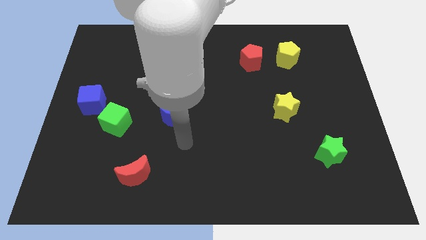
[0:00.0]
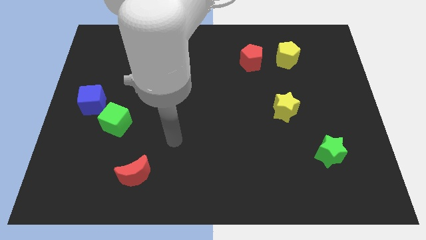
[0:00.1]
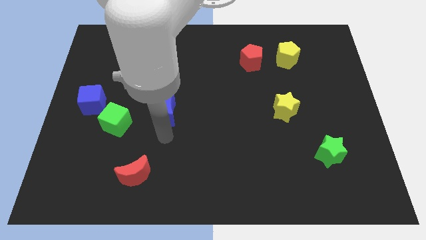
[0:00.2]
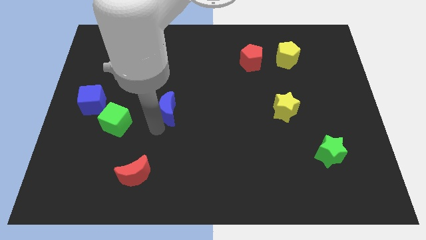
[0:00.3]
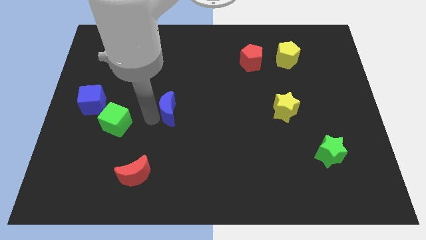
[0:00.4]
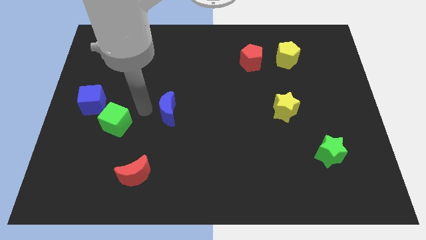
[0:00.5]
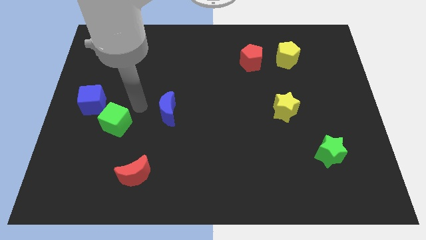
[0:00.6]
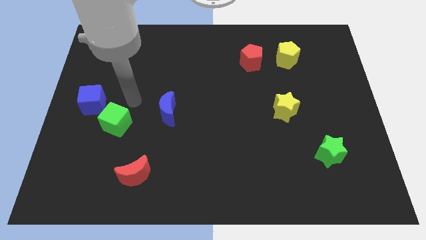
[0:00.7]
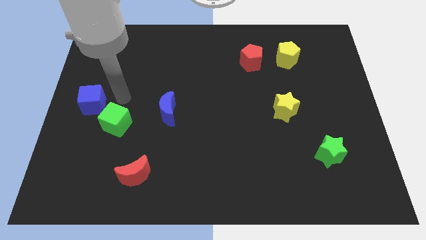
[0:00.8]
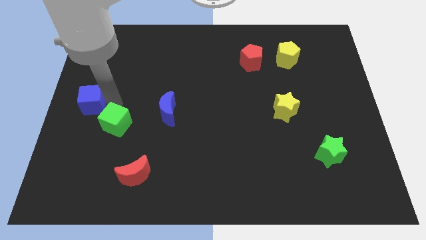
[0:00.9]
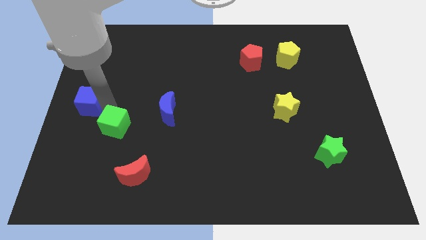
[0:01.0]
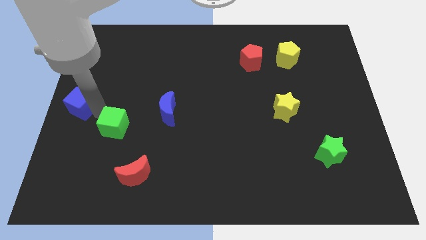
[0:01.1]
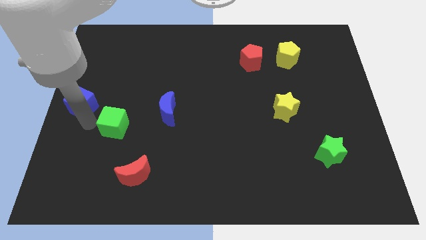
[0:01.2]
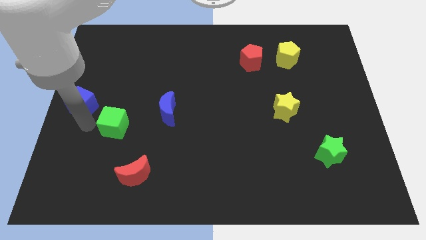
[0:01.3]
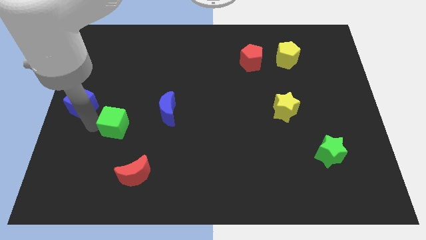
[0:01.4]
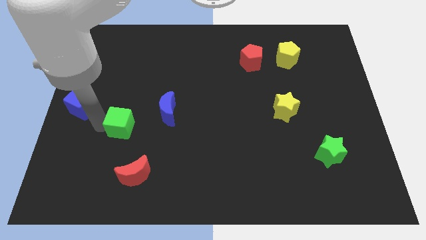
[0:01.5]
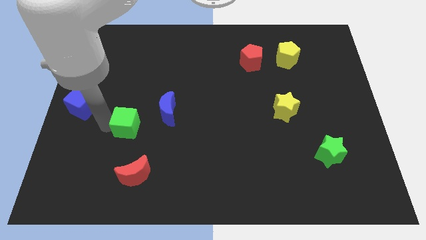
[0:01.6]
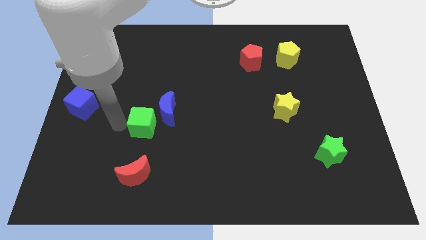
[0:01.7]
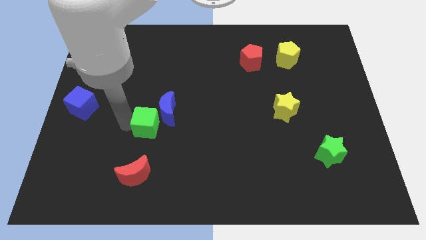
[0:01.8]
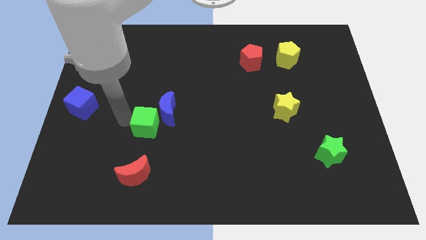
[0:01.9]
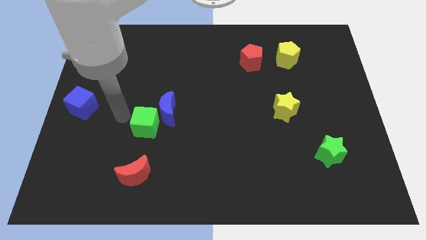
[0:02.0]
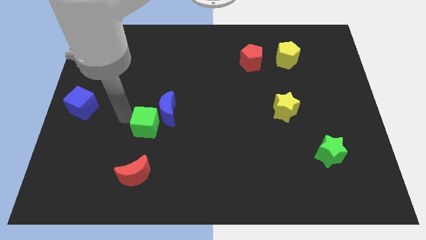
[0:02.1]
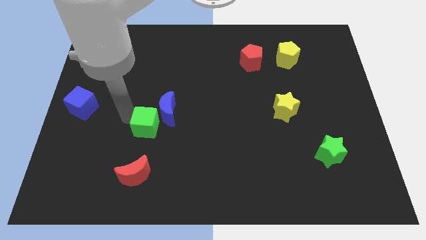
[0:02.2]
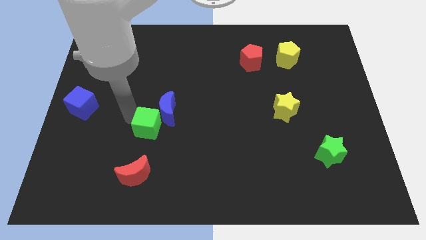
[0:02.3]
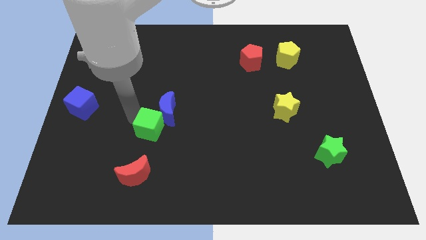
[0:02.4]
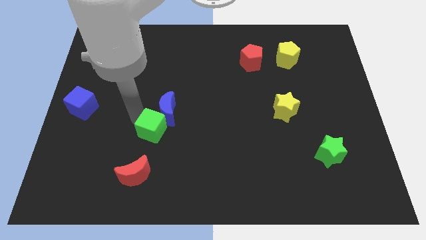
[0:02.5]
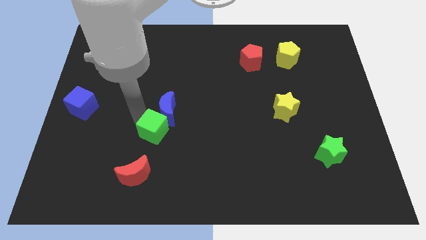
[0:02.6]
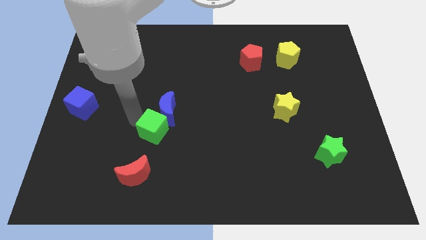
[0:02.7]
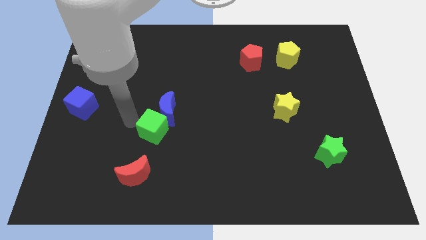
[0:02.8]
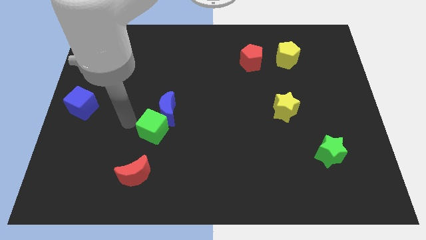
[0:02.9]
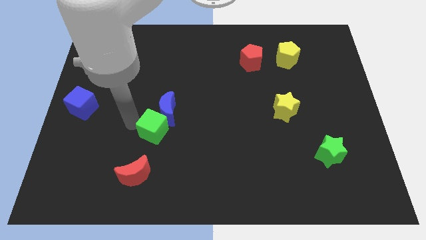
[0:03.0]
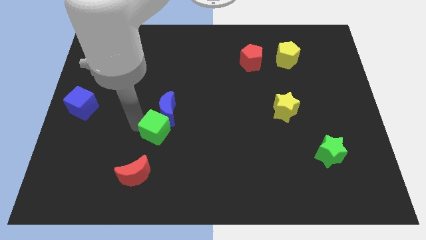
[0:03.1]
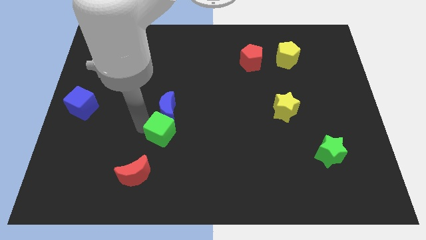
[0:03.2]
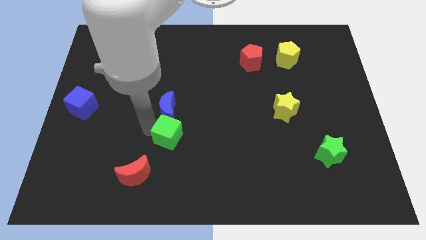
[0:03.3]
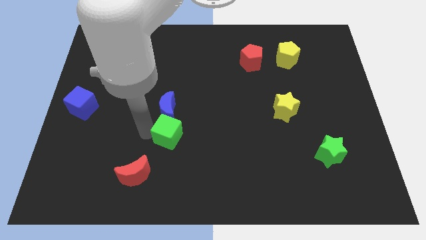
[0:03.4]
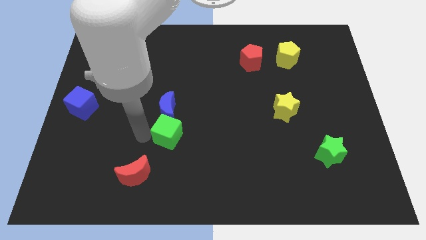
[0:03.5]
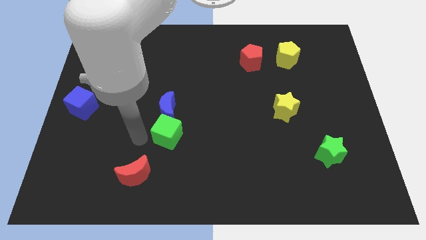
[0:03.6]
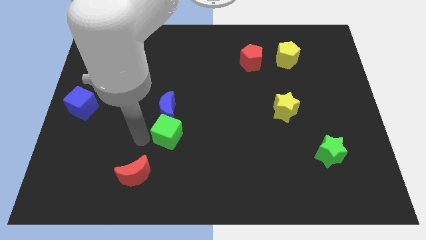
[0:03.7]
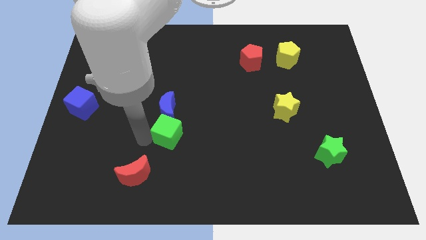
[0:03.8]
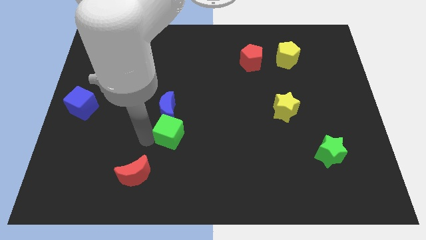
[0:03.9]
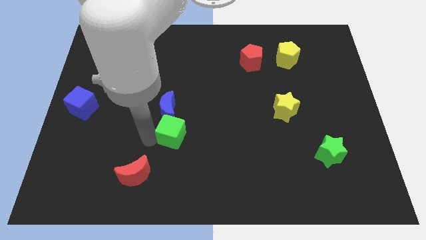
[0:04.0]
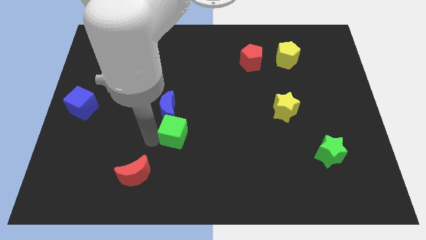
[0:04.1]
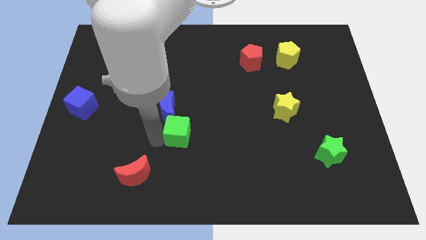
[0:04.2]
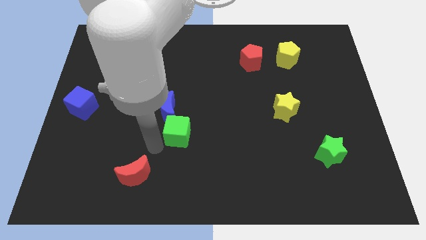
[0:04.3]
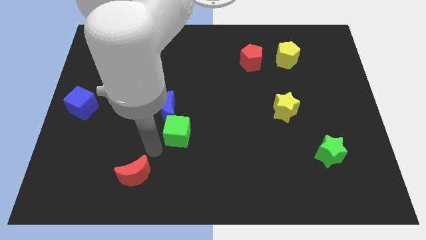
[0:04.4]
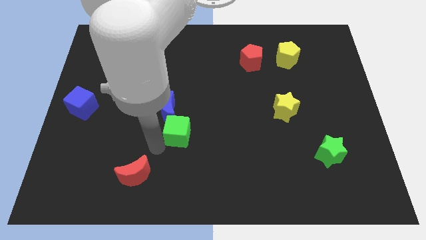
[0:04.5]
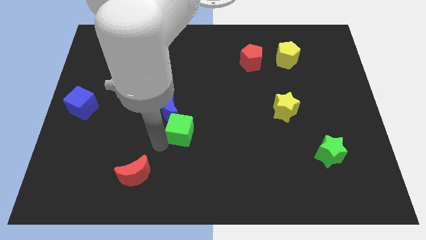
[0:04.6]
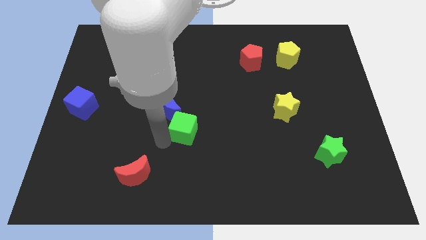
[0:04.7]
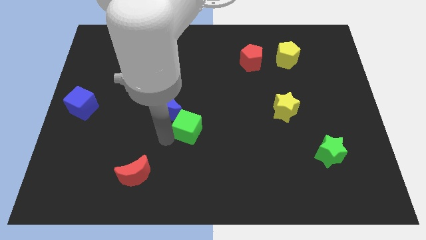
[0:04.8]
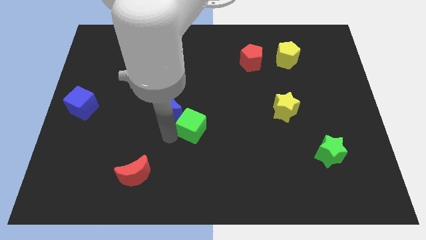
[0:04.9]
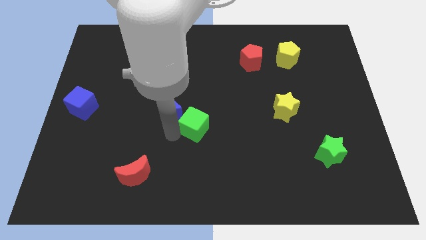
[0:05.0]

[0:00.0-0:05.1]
move the green cube to the right side of the blue moon

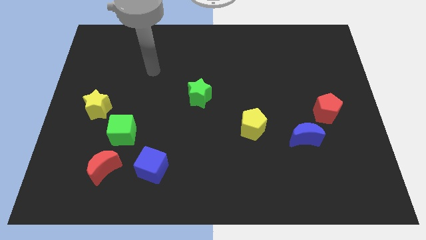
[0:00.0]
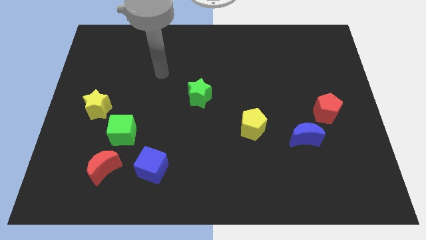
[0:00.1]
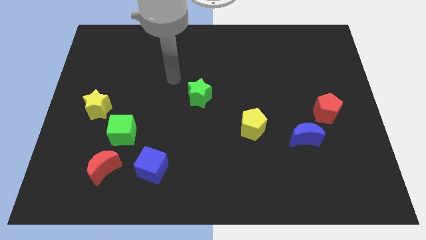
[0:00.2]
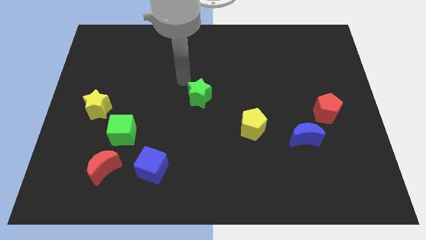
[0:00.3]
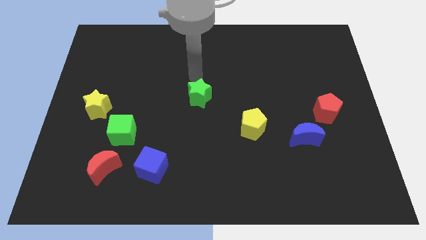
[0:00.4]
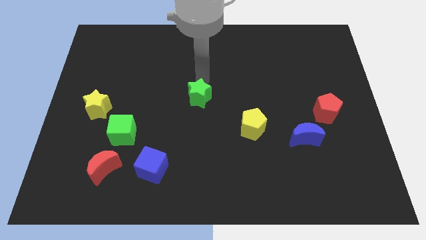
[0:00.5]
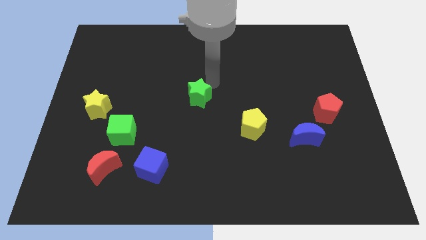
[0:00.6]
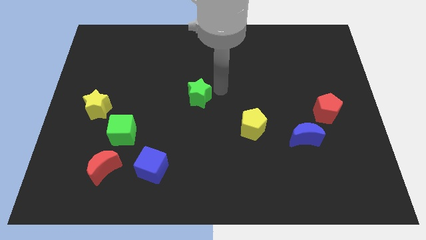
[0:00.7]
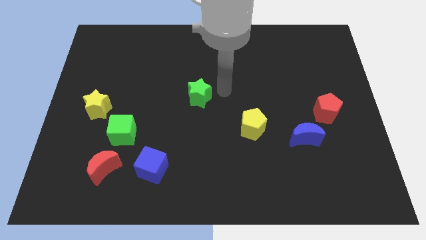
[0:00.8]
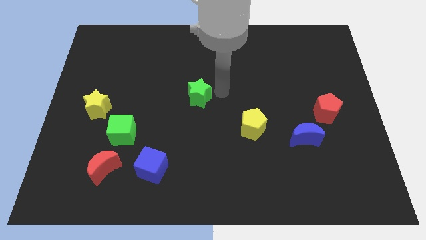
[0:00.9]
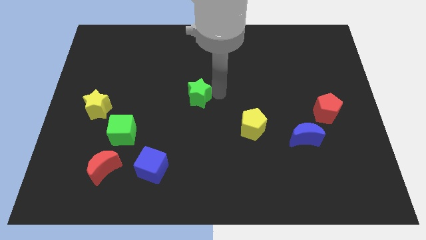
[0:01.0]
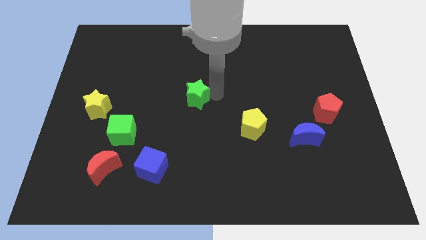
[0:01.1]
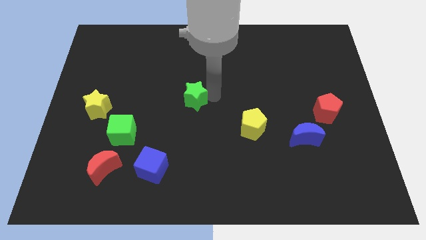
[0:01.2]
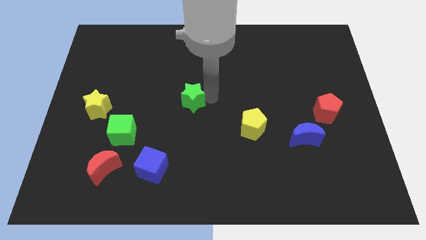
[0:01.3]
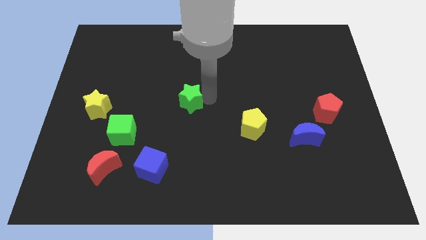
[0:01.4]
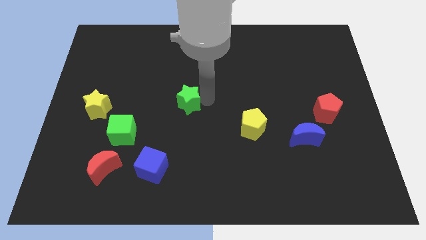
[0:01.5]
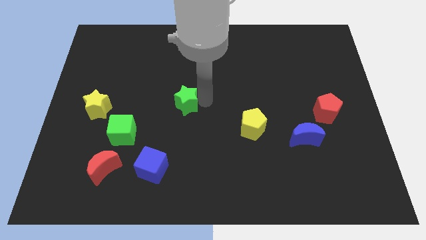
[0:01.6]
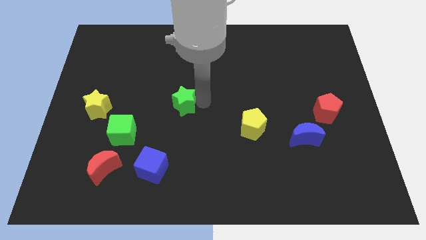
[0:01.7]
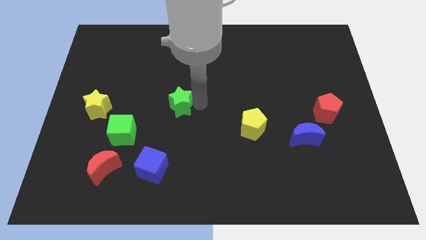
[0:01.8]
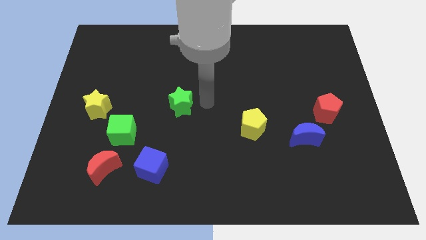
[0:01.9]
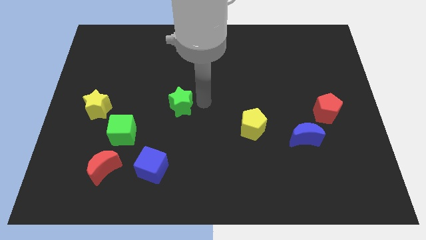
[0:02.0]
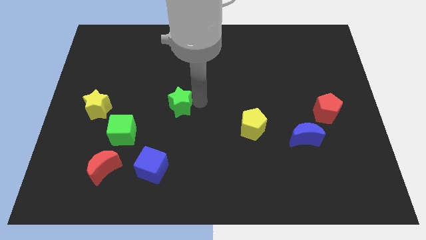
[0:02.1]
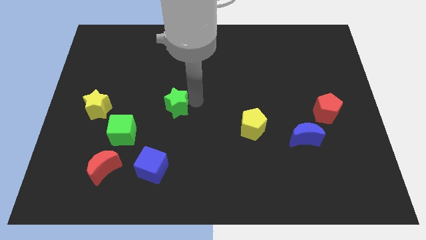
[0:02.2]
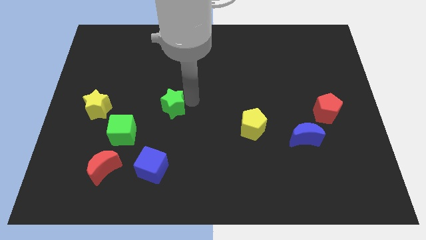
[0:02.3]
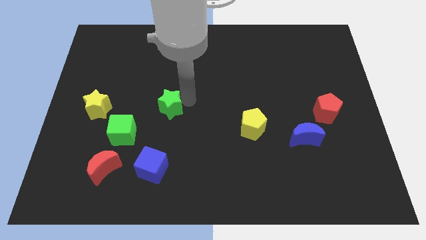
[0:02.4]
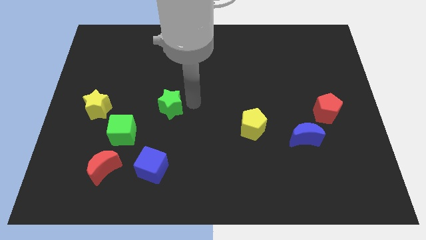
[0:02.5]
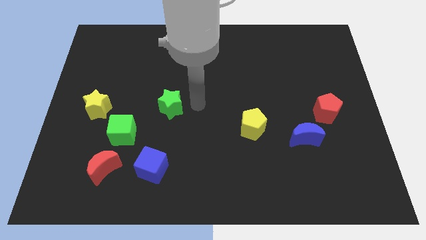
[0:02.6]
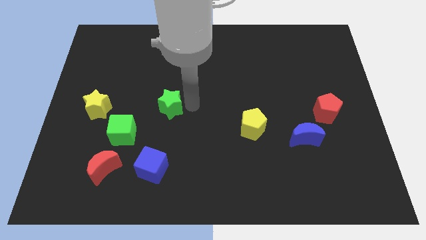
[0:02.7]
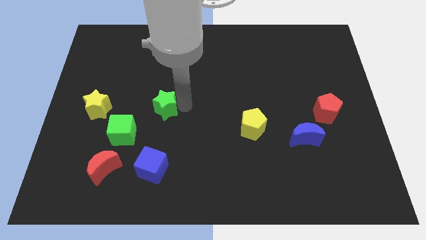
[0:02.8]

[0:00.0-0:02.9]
move the green star to the right of the yellow star

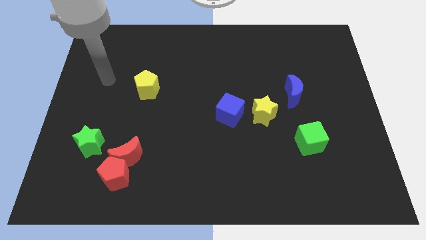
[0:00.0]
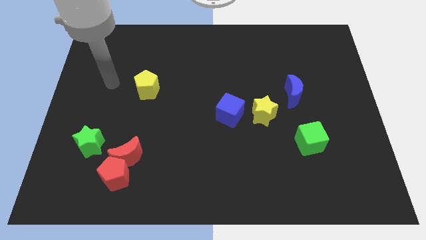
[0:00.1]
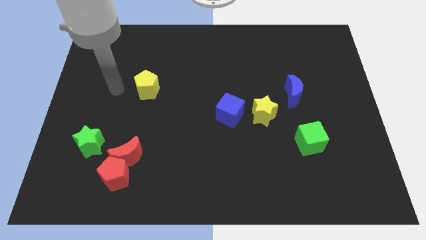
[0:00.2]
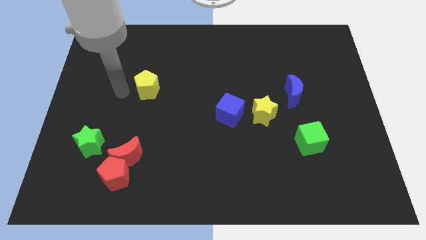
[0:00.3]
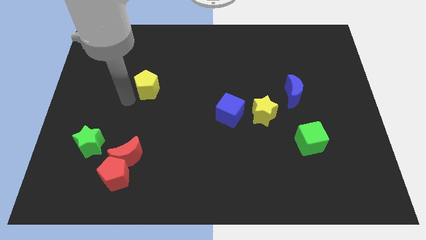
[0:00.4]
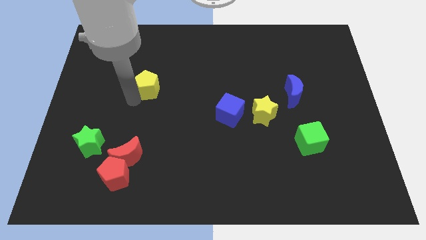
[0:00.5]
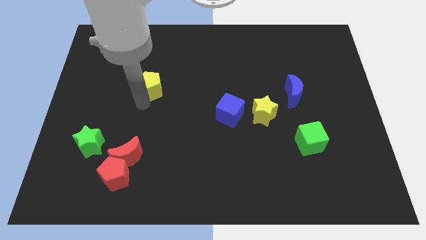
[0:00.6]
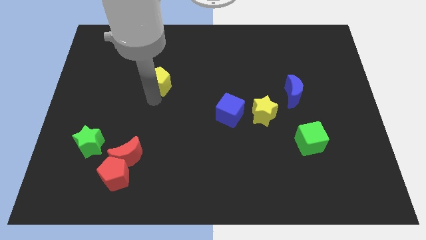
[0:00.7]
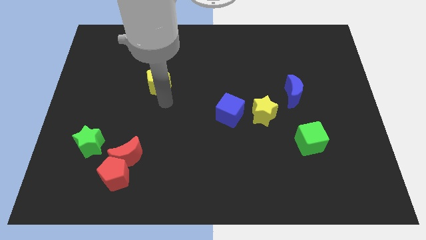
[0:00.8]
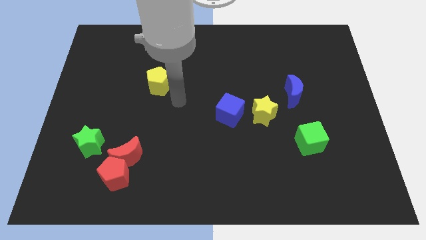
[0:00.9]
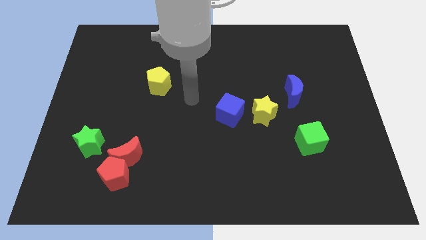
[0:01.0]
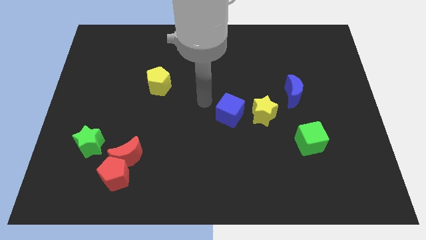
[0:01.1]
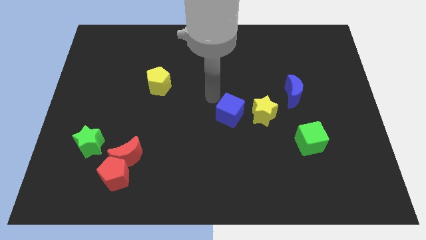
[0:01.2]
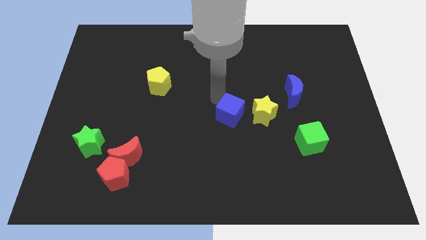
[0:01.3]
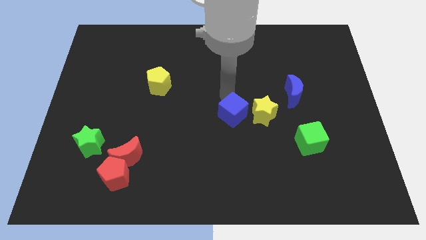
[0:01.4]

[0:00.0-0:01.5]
put the yellow star to the bottom right side of the blue cube
